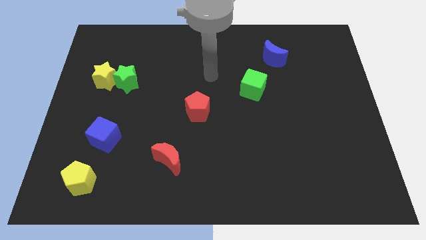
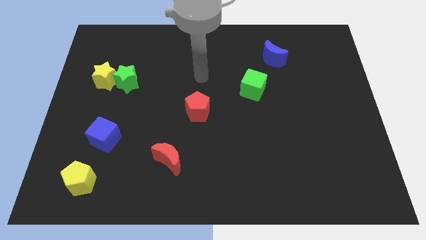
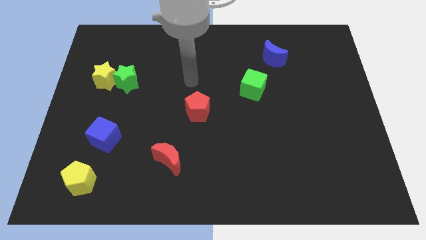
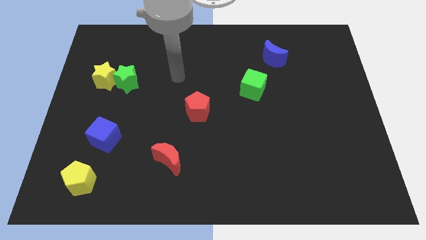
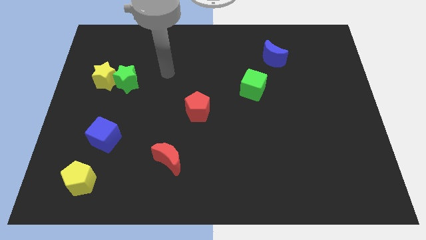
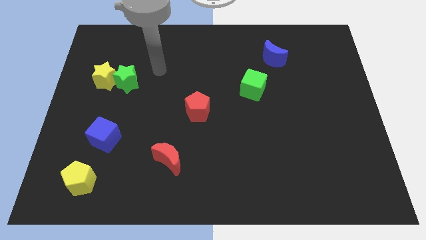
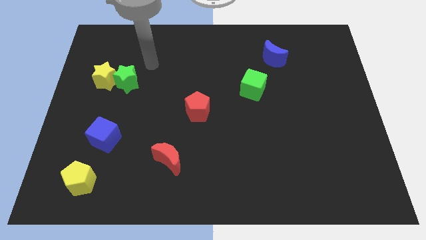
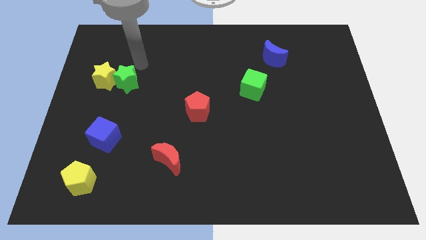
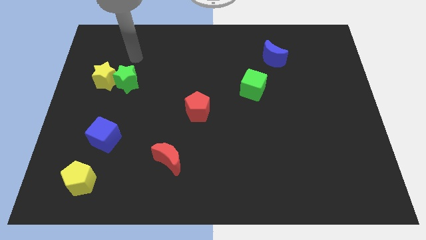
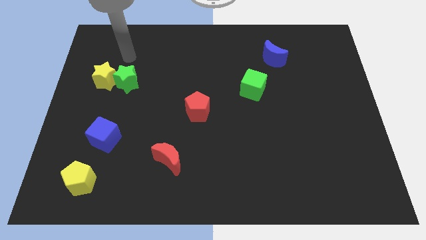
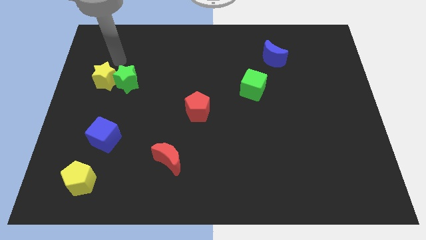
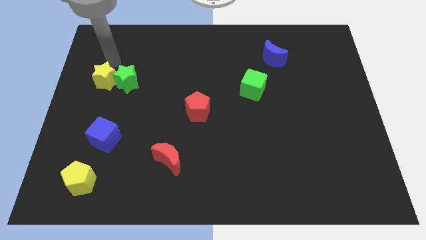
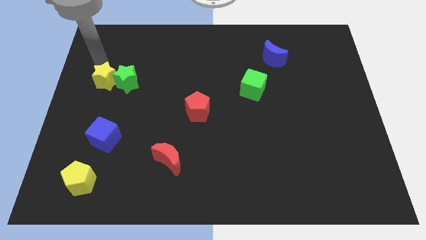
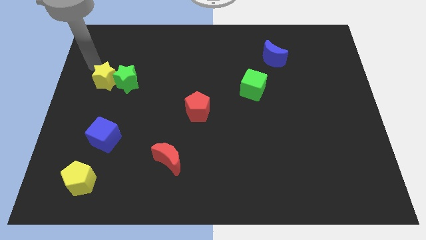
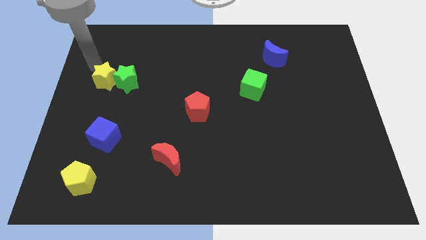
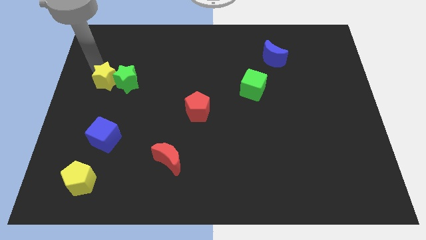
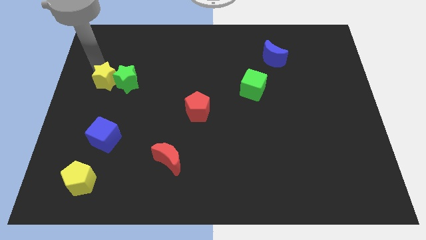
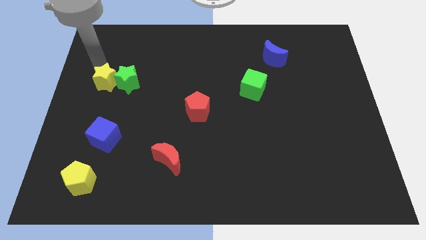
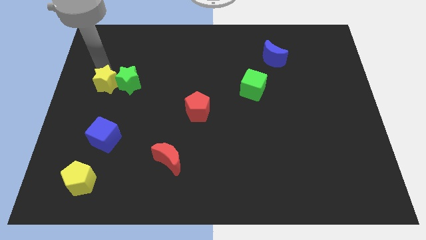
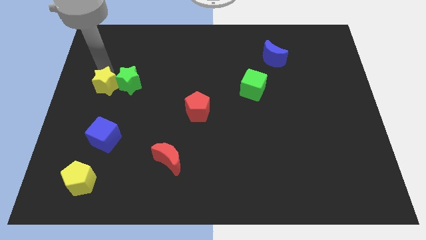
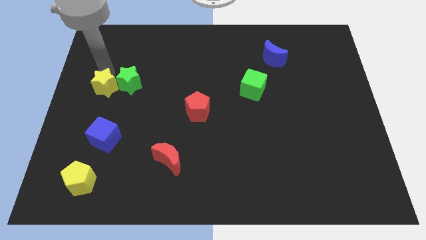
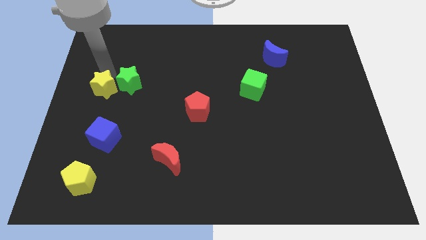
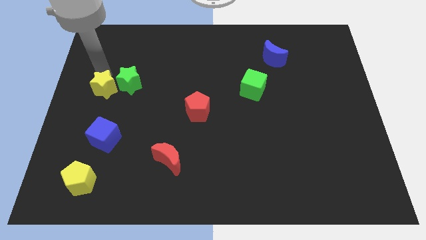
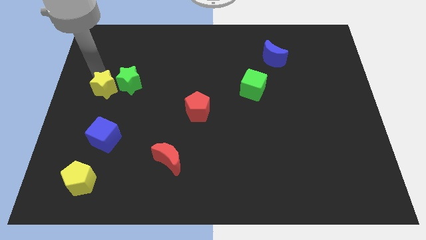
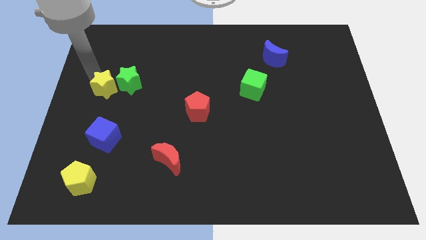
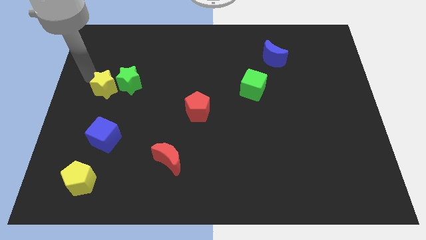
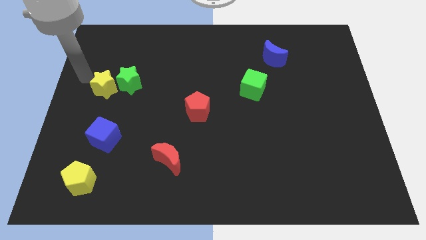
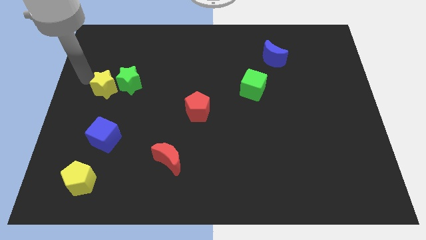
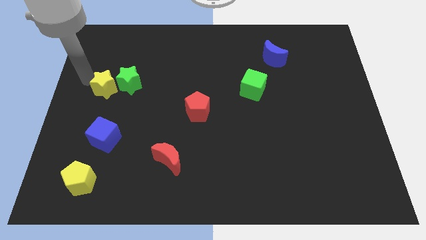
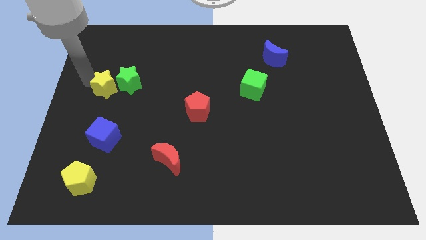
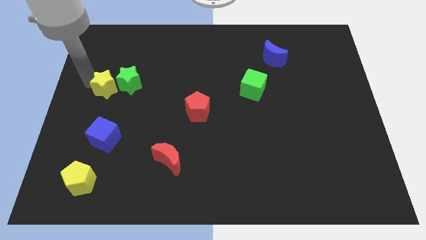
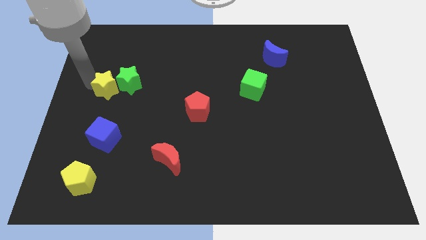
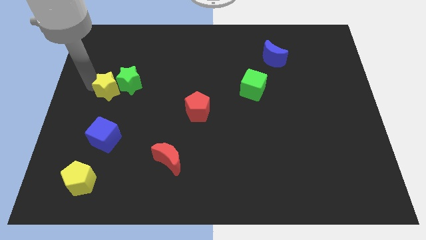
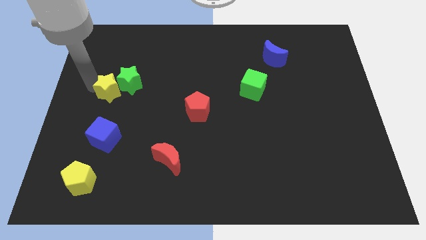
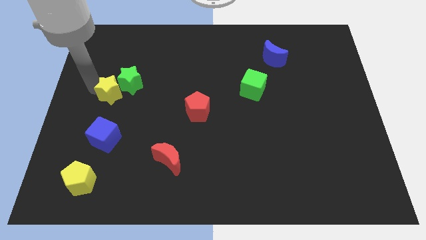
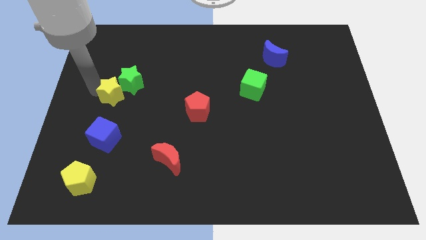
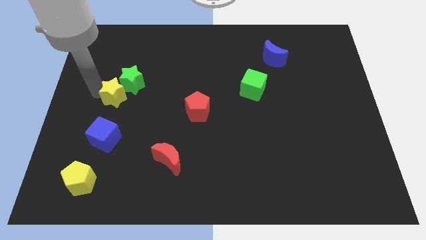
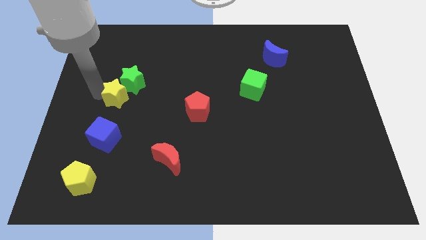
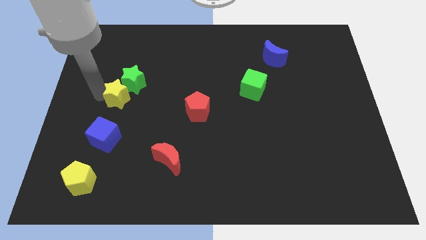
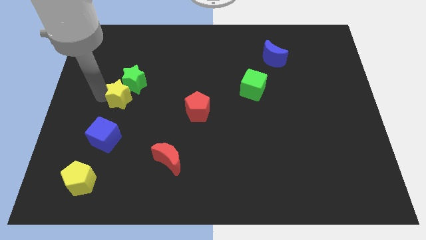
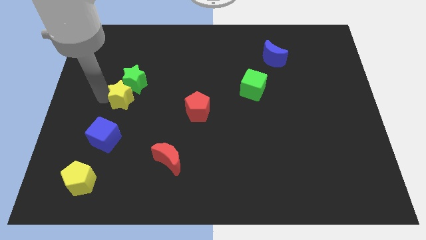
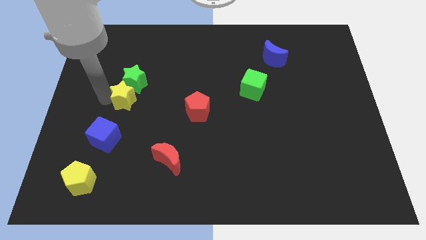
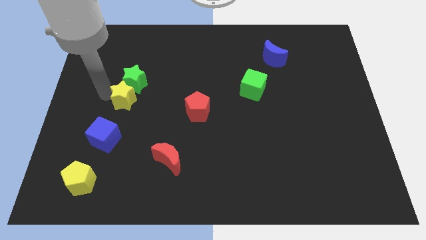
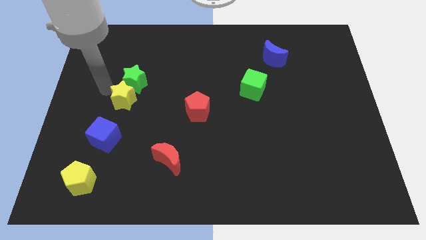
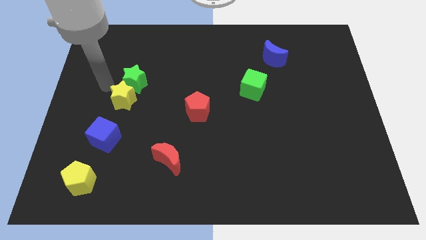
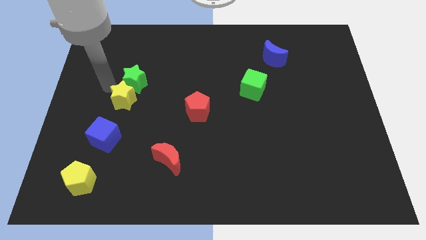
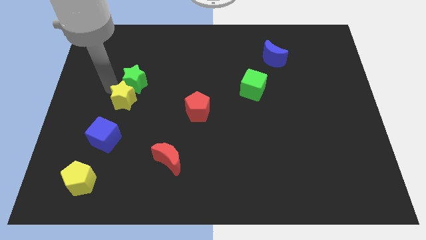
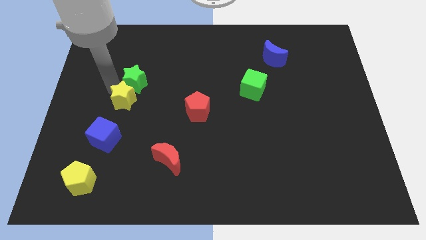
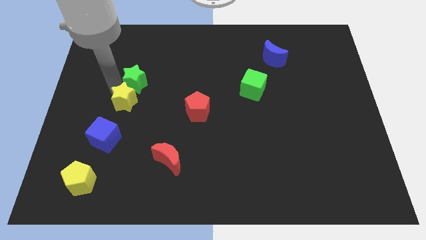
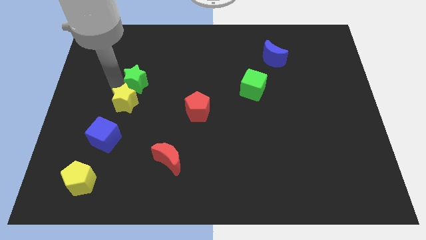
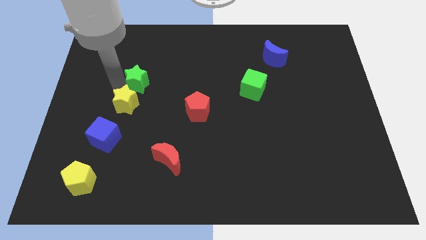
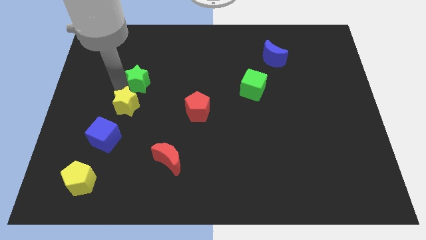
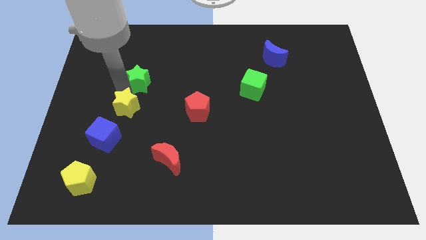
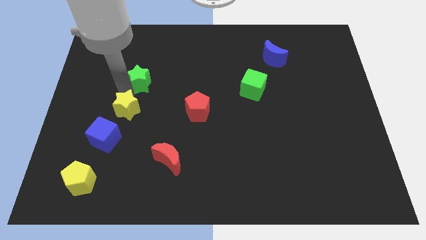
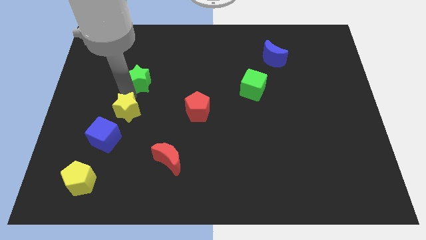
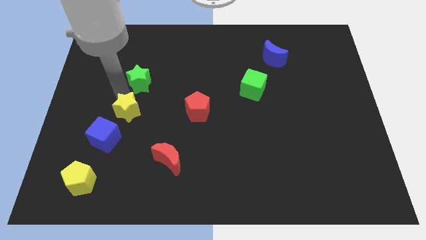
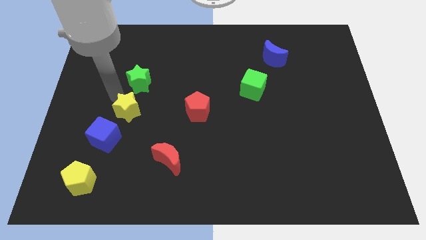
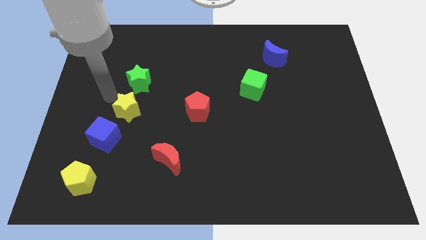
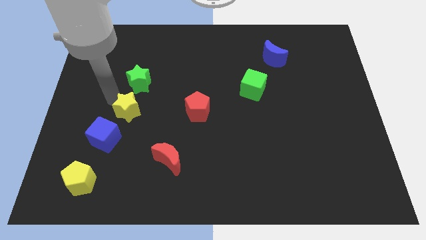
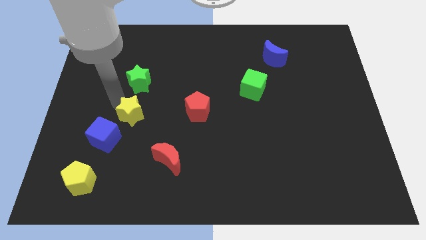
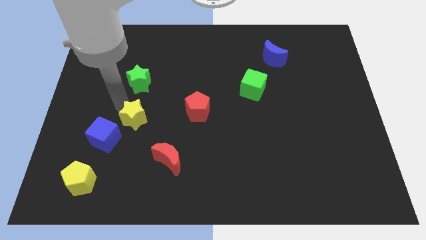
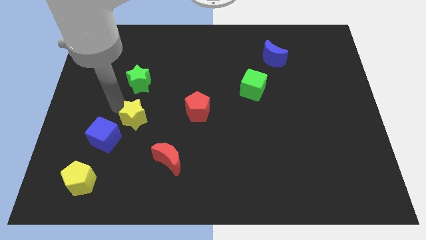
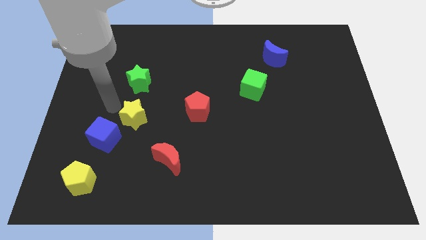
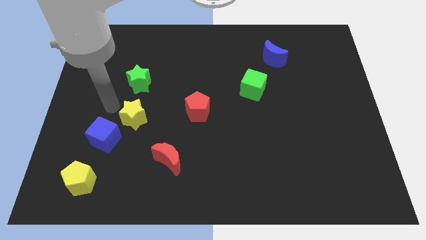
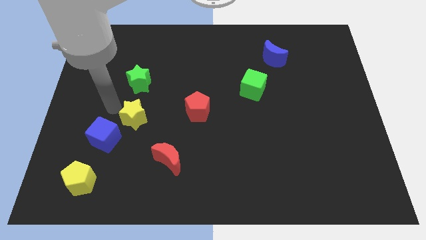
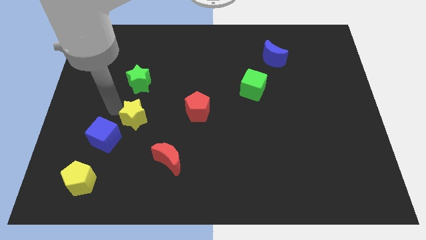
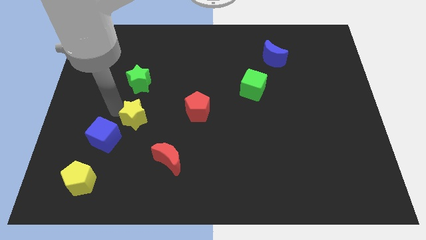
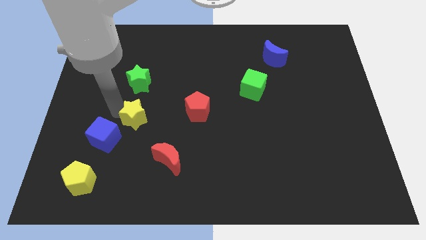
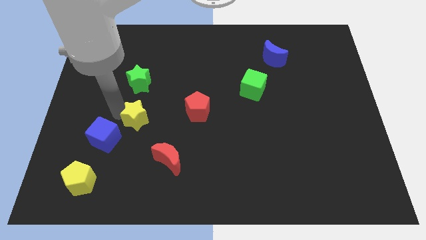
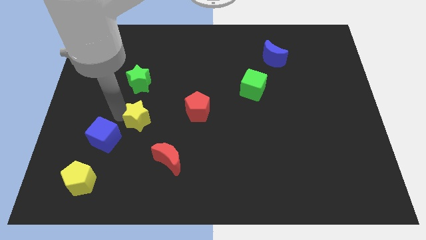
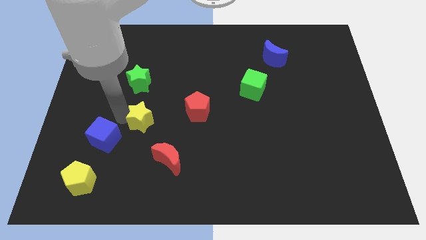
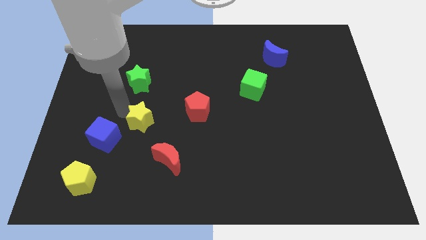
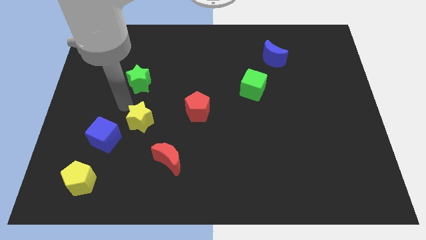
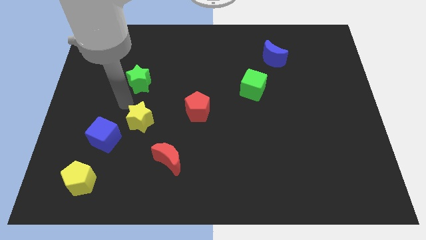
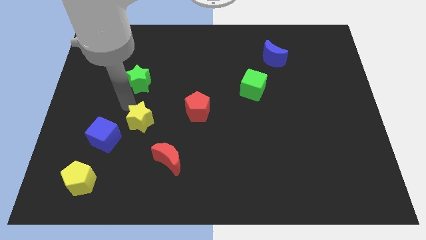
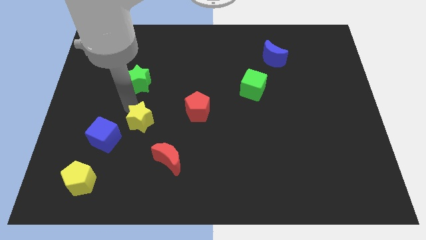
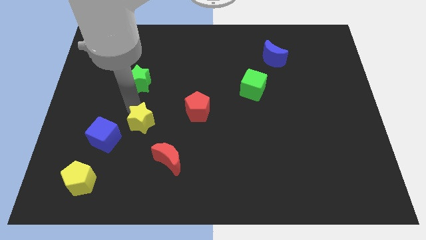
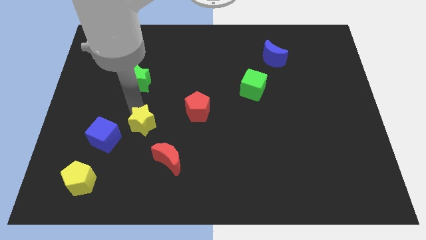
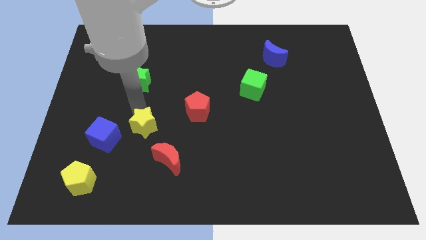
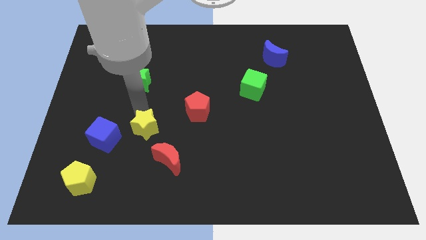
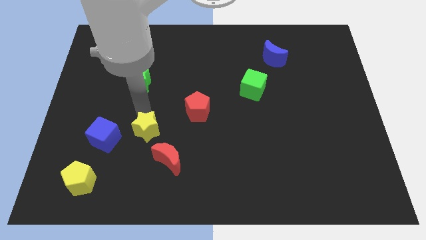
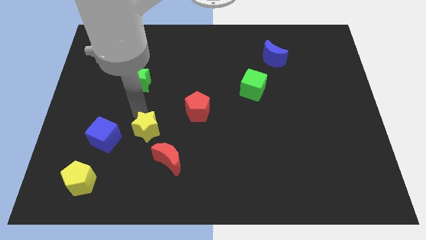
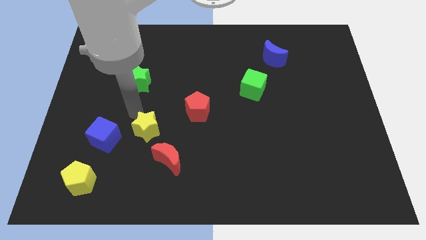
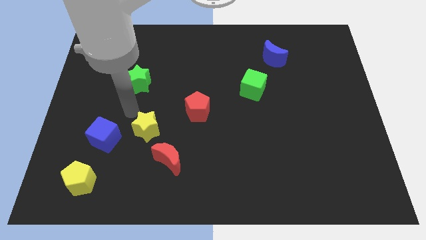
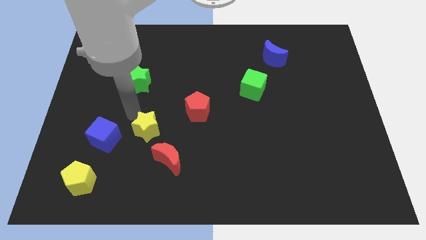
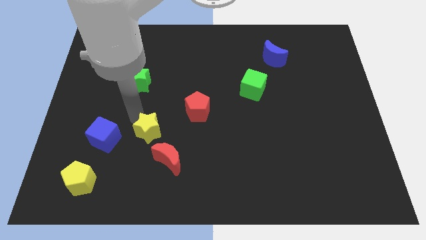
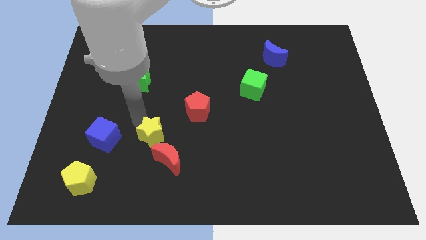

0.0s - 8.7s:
slide the yellow star downwards and right
